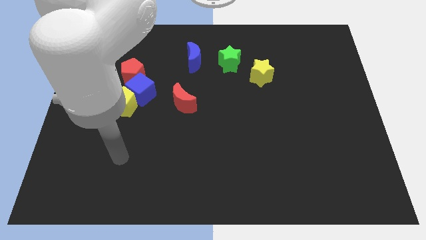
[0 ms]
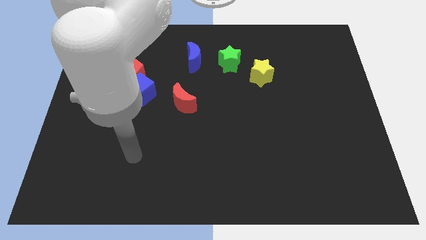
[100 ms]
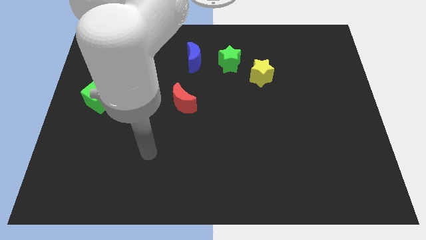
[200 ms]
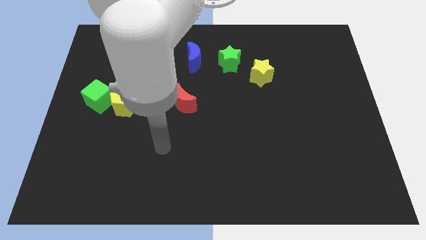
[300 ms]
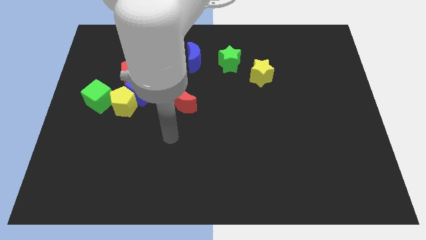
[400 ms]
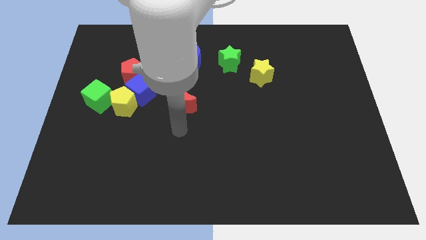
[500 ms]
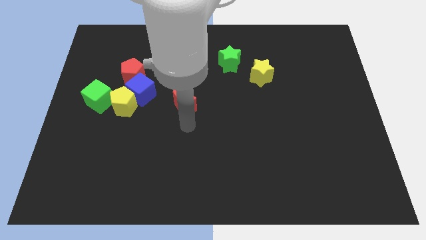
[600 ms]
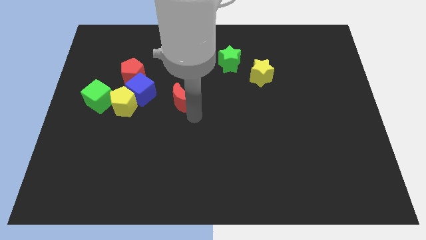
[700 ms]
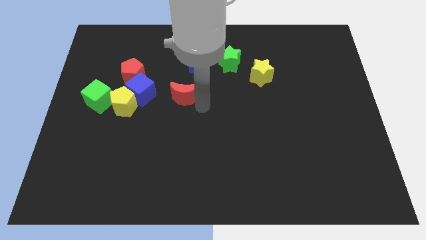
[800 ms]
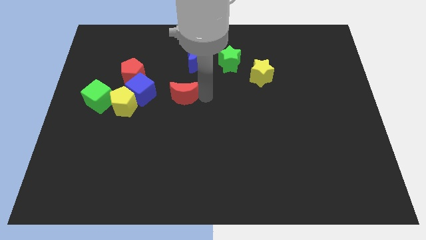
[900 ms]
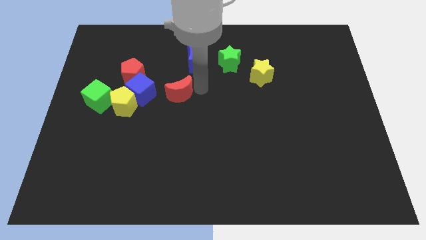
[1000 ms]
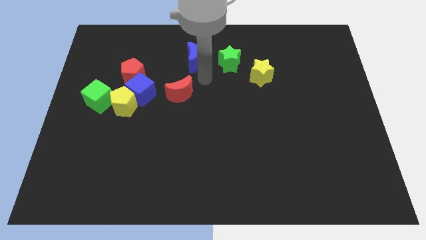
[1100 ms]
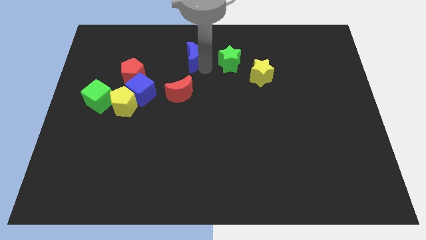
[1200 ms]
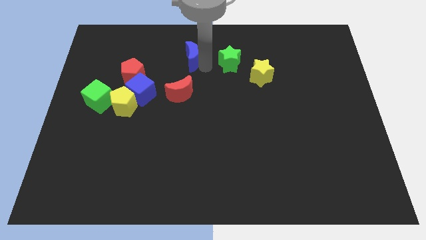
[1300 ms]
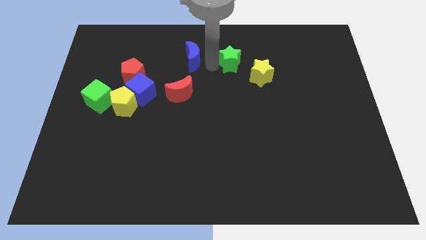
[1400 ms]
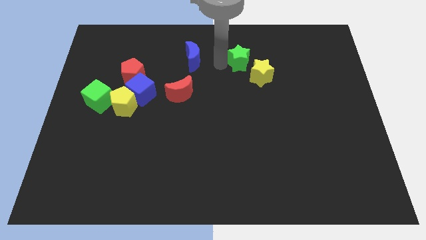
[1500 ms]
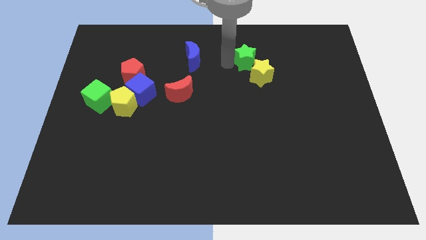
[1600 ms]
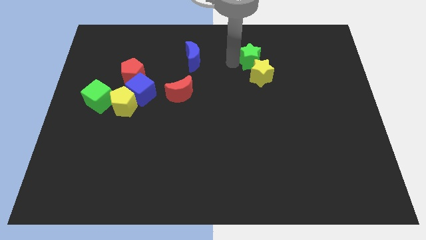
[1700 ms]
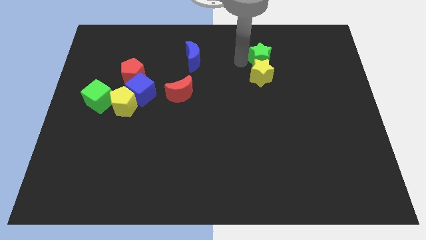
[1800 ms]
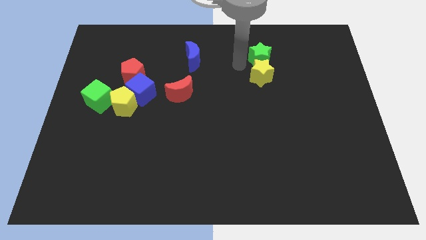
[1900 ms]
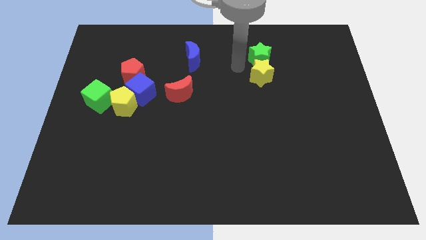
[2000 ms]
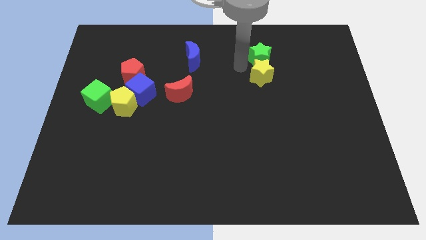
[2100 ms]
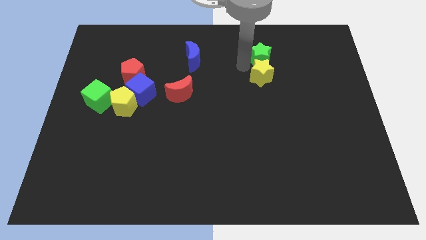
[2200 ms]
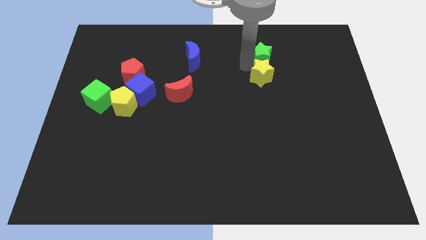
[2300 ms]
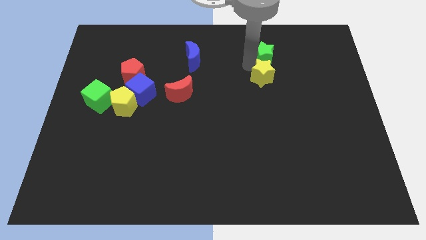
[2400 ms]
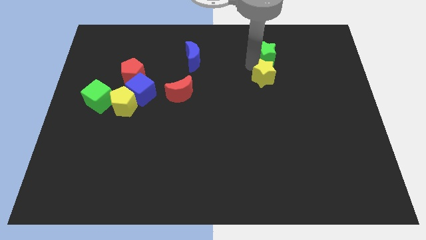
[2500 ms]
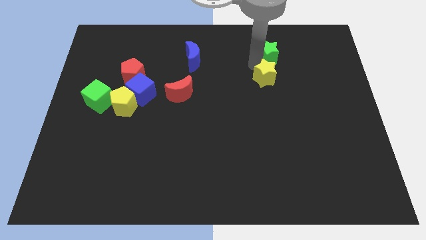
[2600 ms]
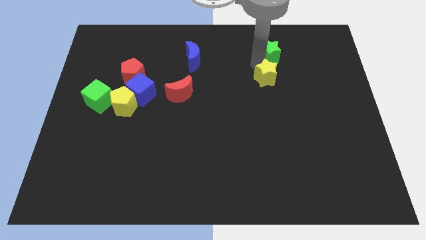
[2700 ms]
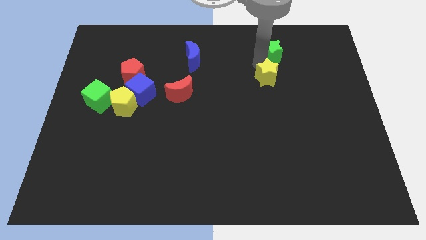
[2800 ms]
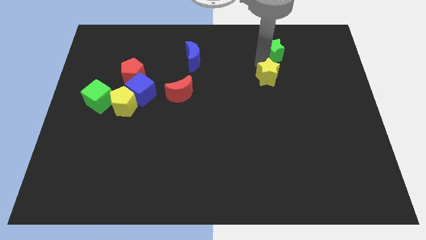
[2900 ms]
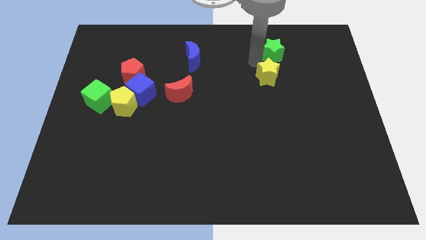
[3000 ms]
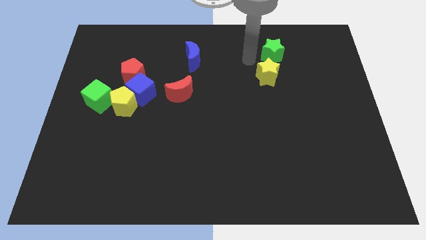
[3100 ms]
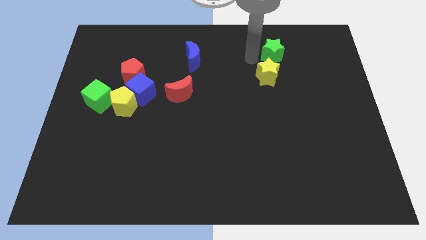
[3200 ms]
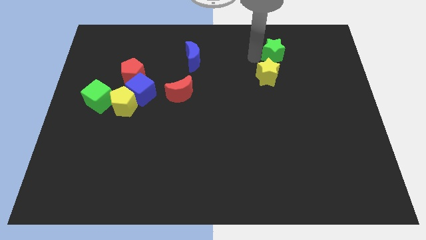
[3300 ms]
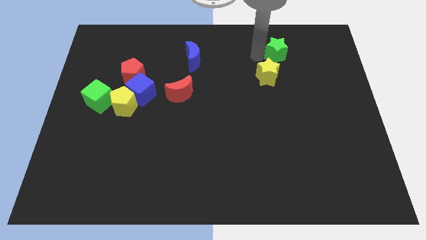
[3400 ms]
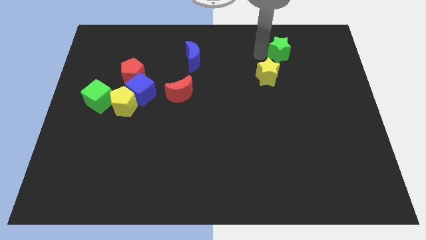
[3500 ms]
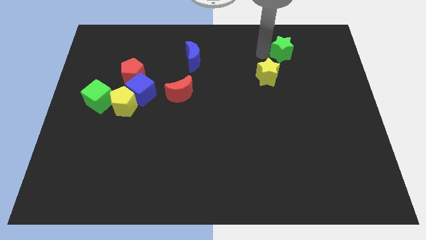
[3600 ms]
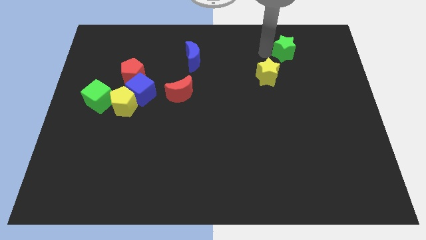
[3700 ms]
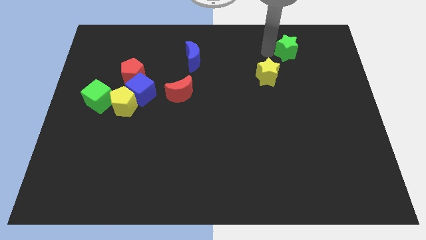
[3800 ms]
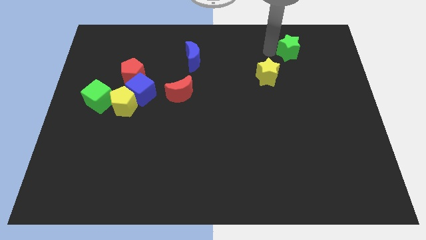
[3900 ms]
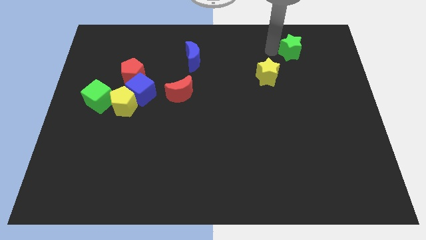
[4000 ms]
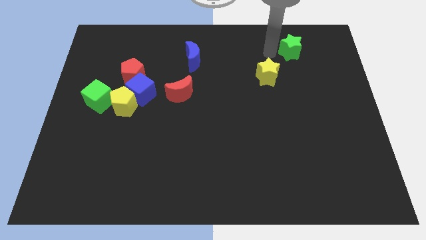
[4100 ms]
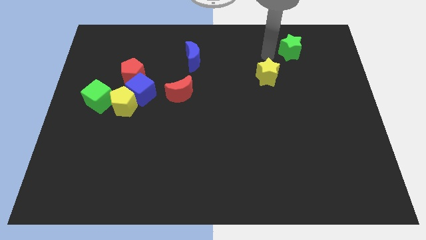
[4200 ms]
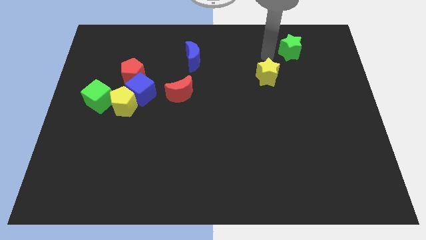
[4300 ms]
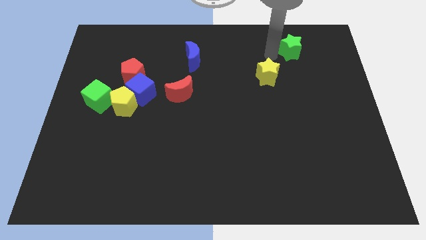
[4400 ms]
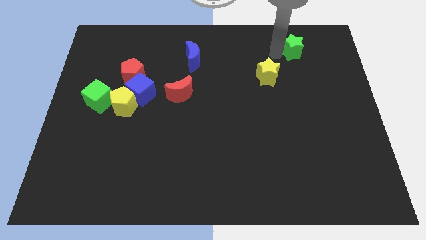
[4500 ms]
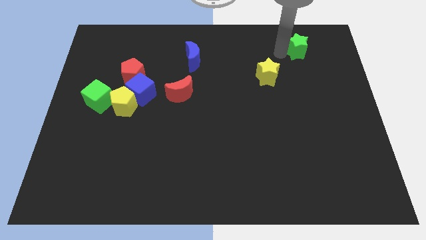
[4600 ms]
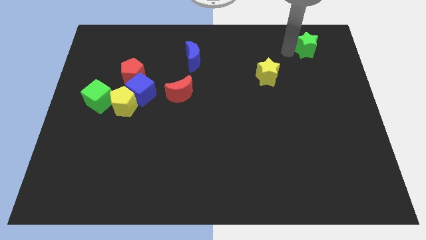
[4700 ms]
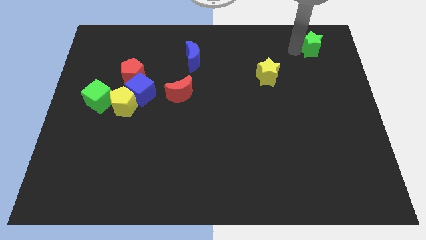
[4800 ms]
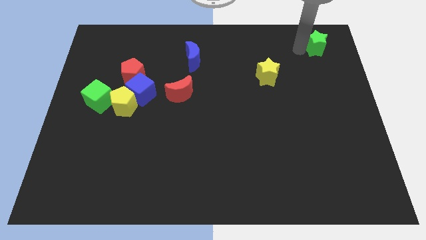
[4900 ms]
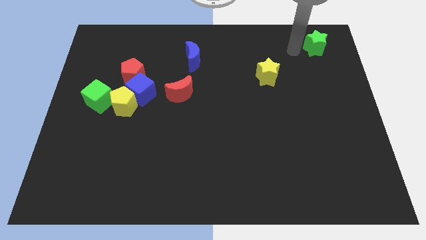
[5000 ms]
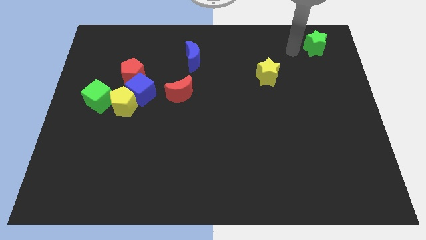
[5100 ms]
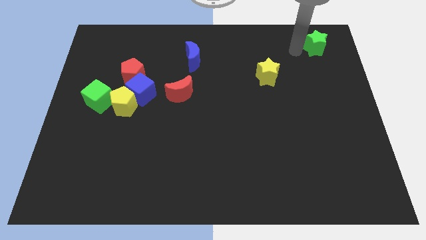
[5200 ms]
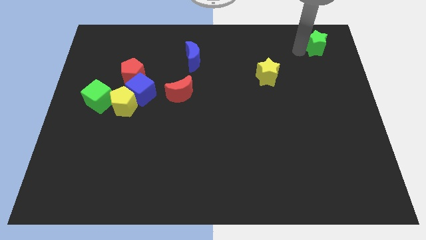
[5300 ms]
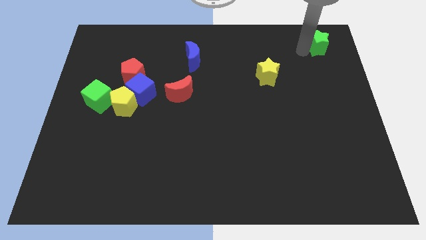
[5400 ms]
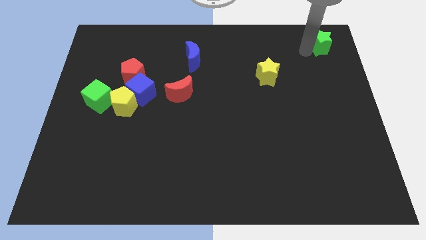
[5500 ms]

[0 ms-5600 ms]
put the green star to the top right of the board

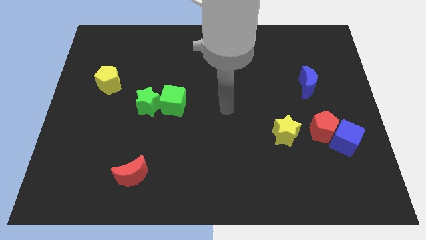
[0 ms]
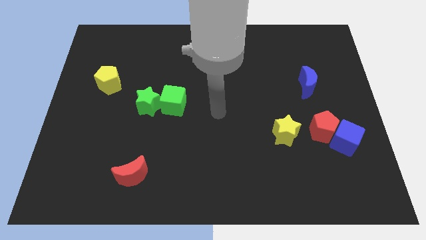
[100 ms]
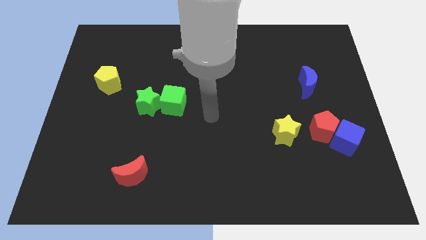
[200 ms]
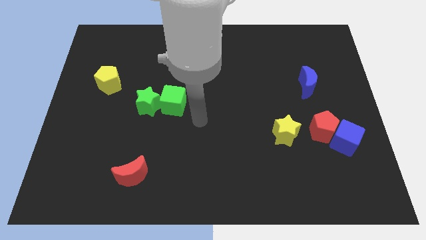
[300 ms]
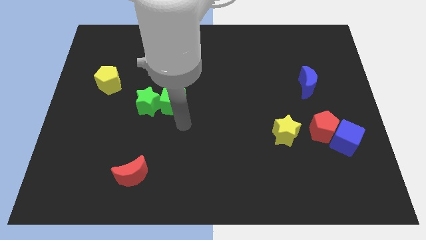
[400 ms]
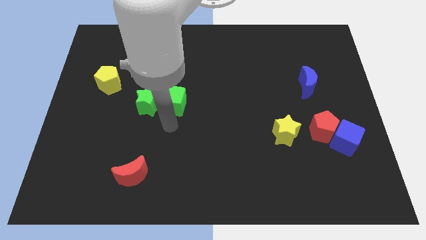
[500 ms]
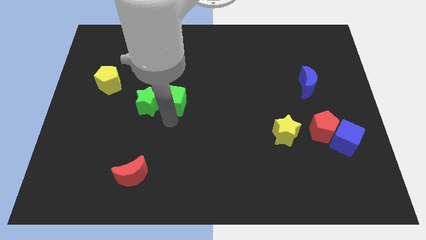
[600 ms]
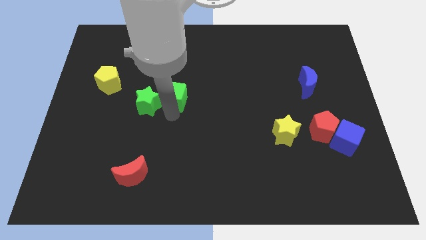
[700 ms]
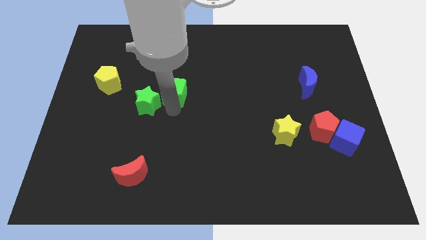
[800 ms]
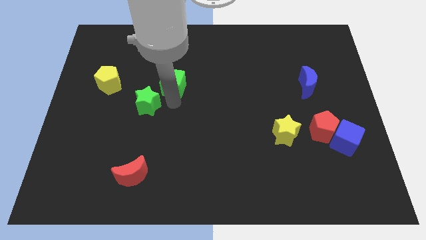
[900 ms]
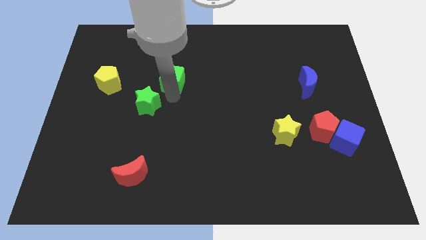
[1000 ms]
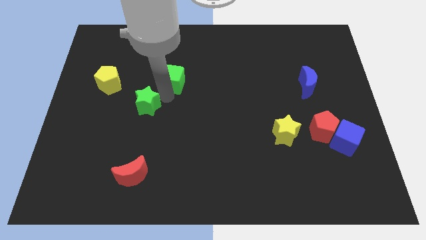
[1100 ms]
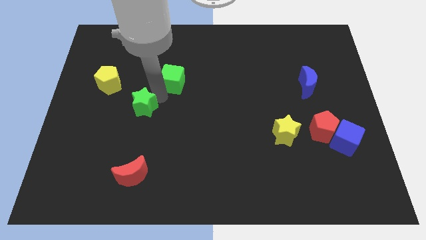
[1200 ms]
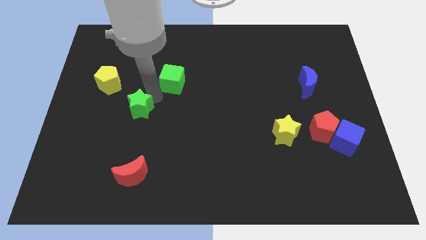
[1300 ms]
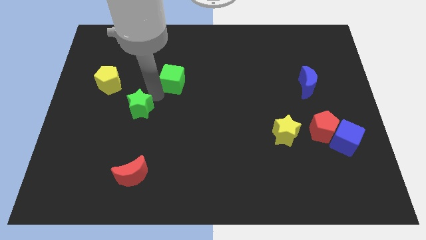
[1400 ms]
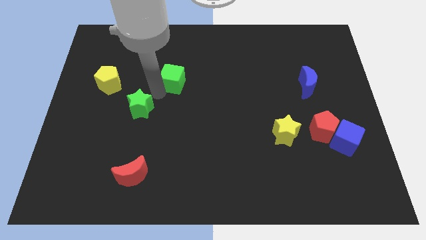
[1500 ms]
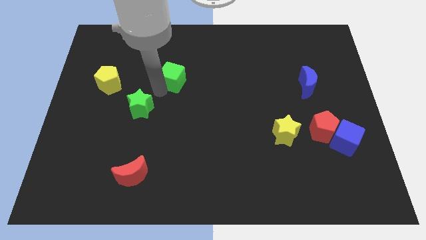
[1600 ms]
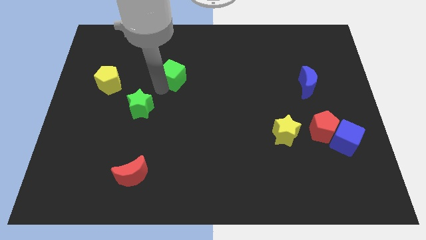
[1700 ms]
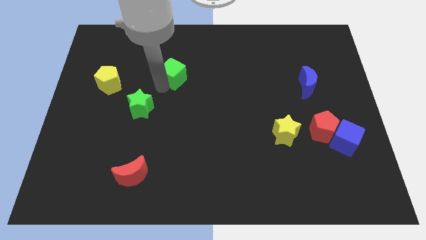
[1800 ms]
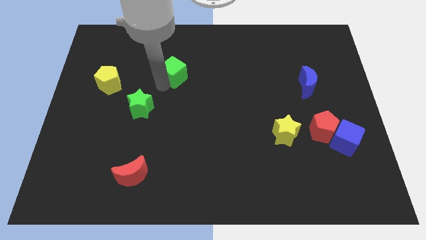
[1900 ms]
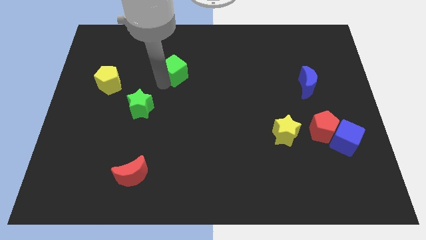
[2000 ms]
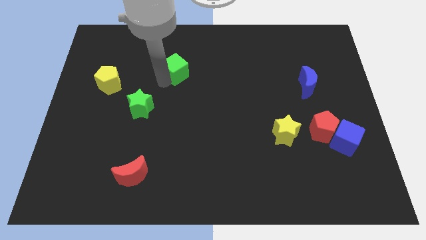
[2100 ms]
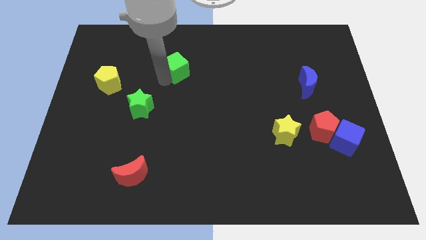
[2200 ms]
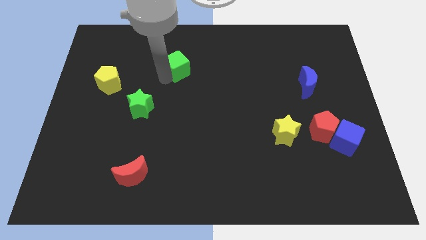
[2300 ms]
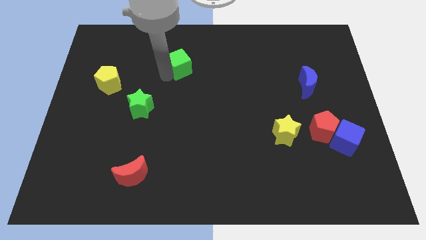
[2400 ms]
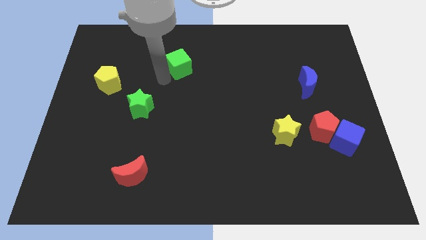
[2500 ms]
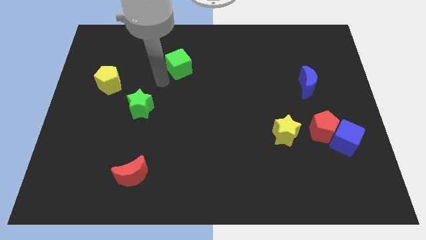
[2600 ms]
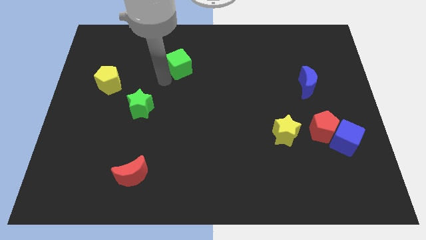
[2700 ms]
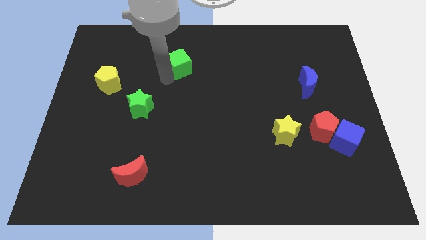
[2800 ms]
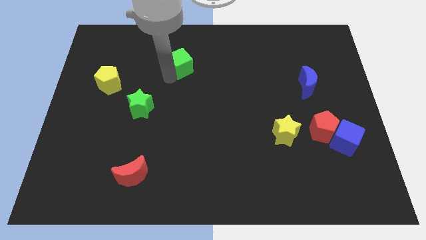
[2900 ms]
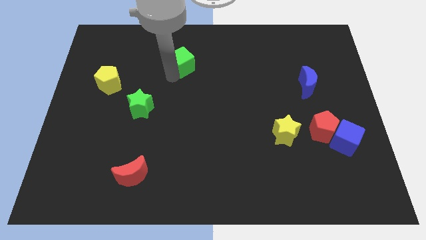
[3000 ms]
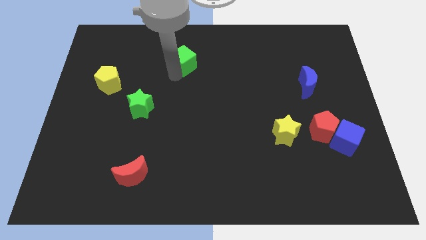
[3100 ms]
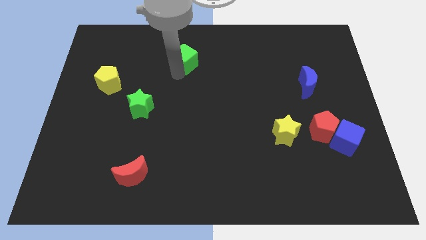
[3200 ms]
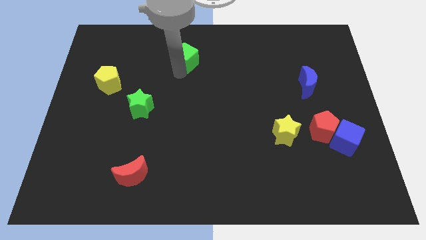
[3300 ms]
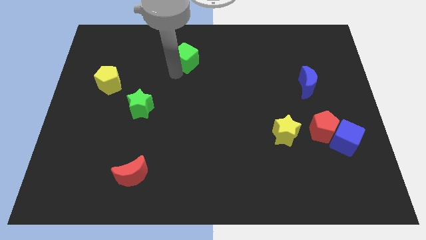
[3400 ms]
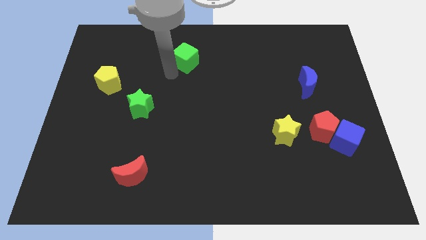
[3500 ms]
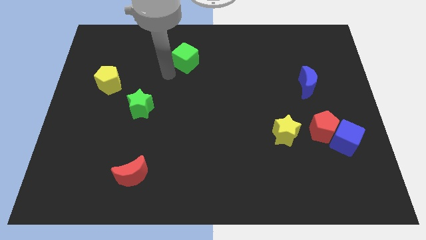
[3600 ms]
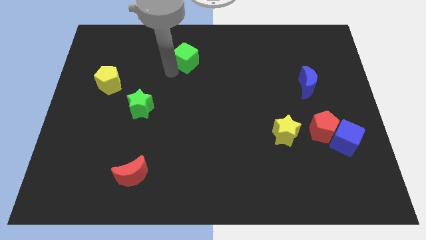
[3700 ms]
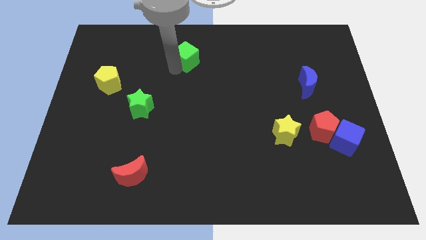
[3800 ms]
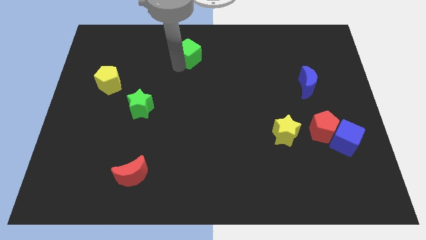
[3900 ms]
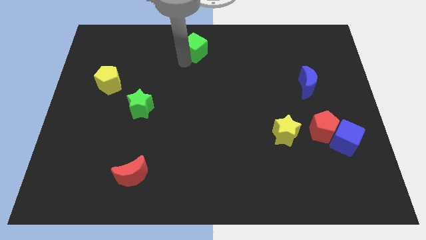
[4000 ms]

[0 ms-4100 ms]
push the green cube to the top
